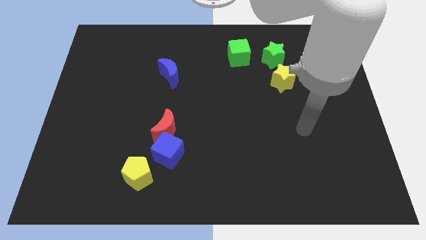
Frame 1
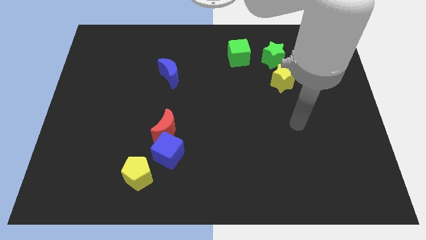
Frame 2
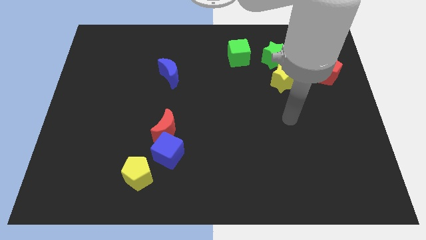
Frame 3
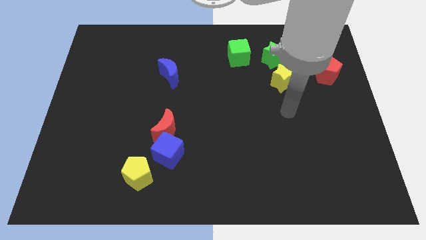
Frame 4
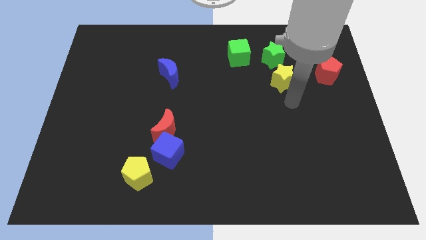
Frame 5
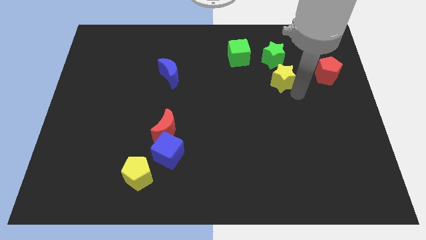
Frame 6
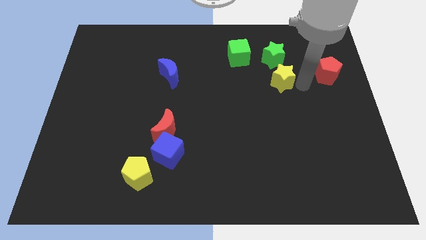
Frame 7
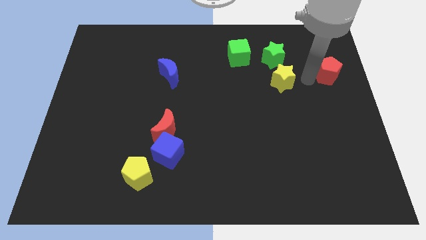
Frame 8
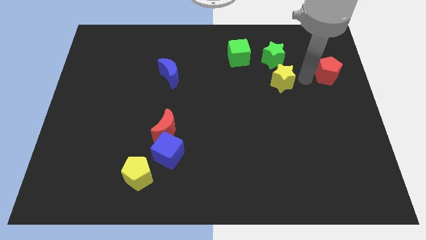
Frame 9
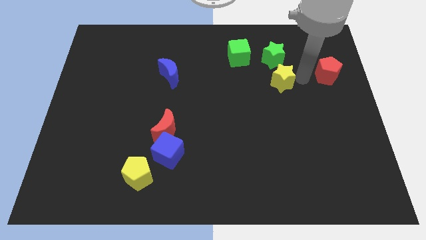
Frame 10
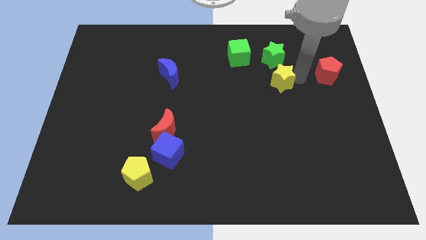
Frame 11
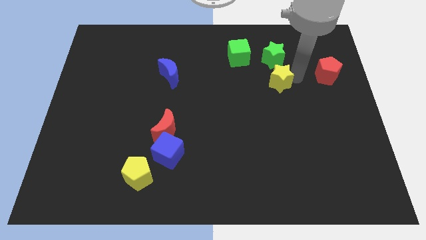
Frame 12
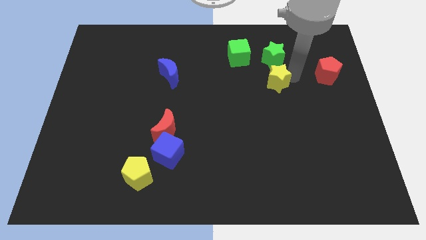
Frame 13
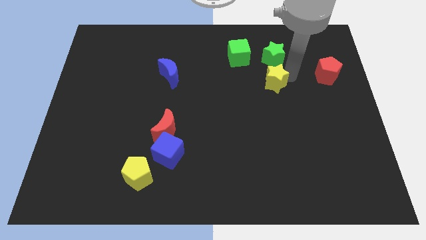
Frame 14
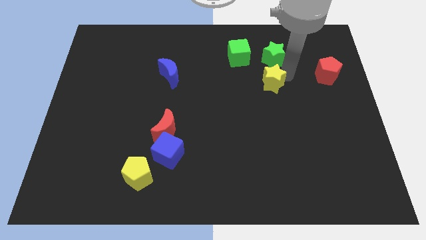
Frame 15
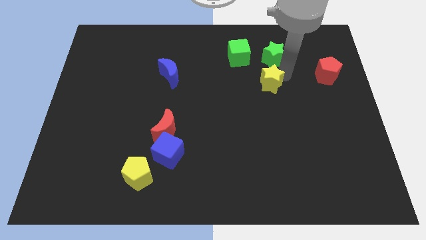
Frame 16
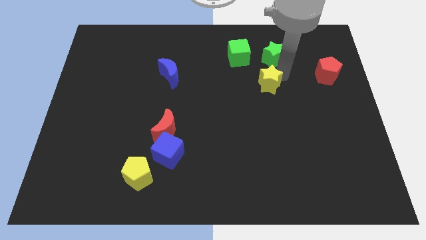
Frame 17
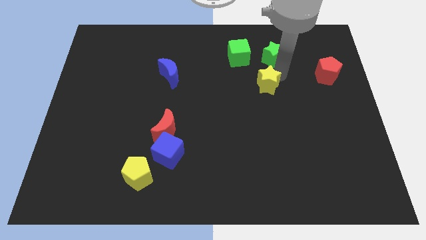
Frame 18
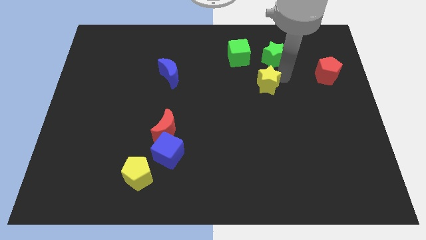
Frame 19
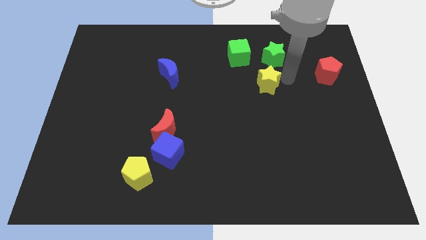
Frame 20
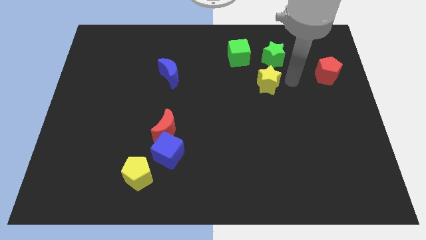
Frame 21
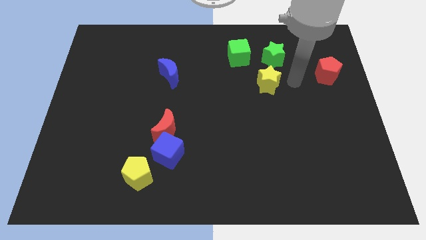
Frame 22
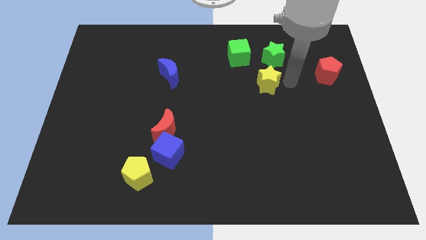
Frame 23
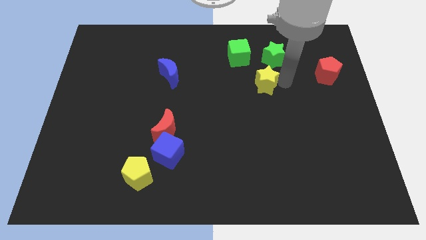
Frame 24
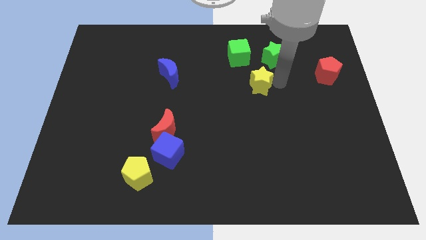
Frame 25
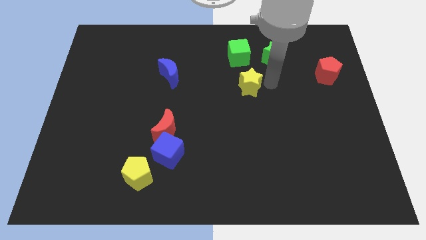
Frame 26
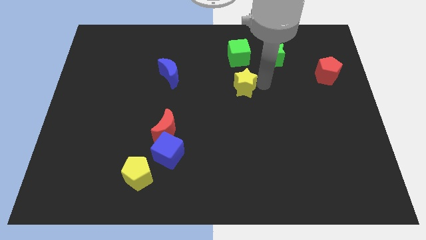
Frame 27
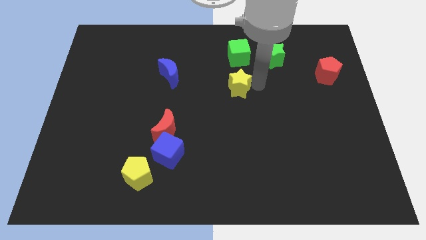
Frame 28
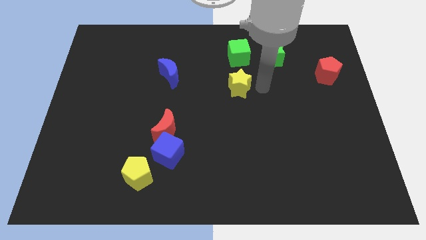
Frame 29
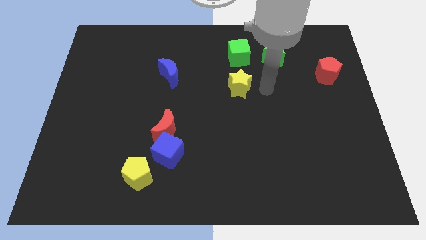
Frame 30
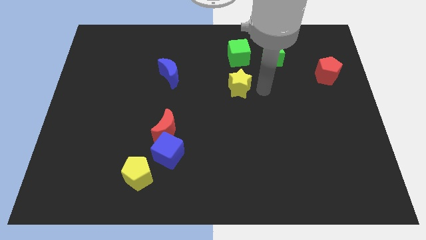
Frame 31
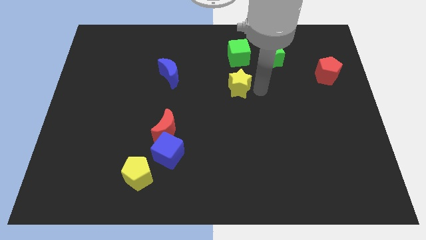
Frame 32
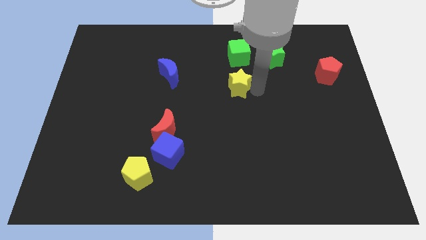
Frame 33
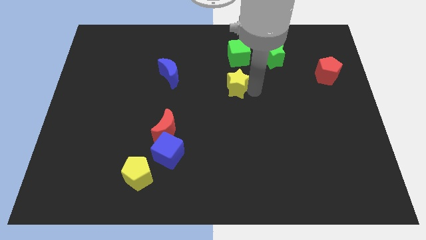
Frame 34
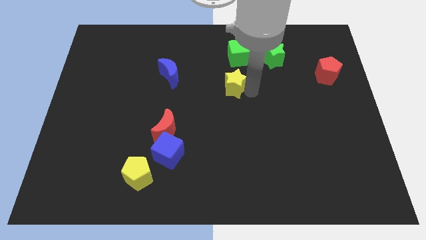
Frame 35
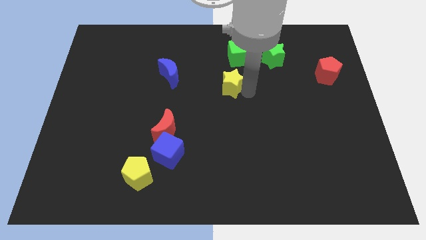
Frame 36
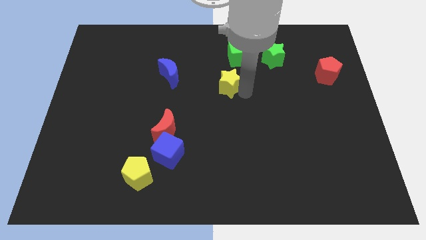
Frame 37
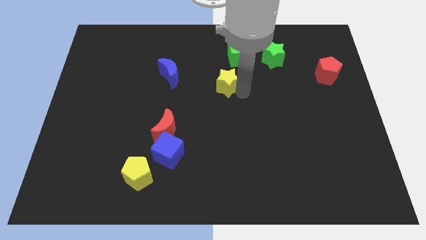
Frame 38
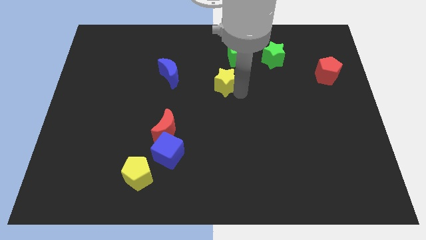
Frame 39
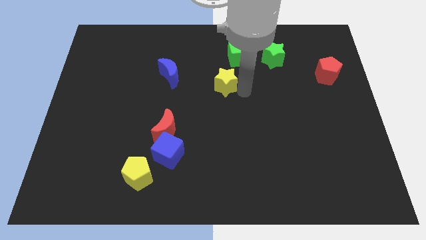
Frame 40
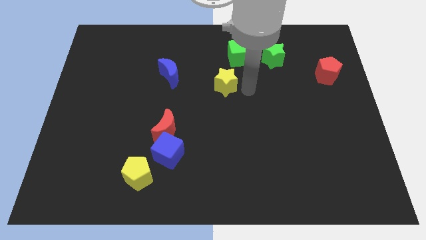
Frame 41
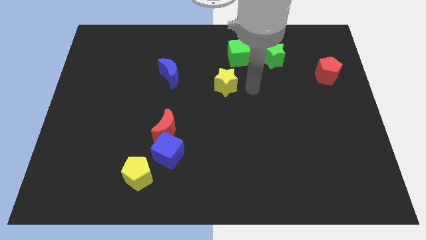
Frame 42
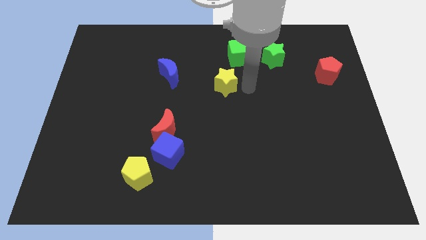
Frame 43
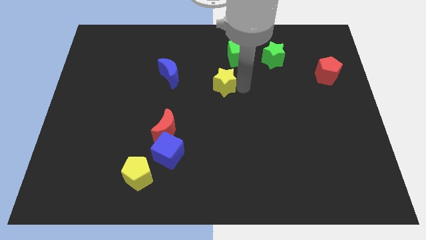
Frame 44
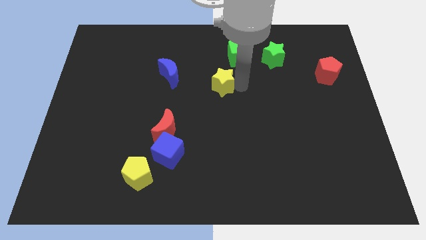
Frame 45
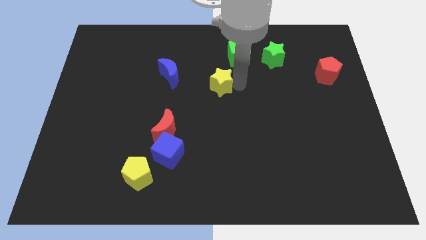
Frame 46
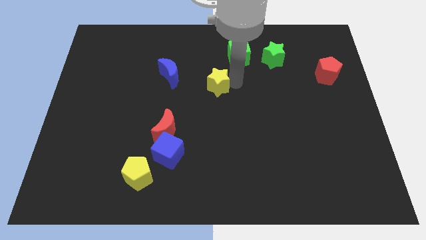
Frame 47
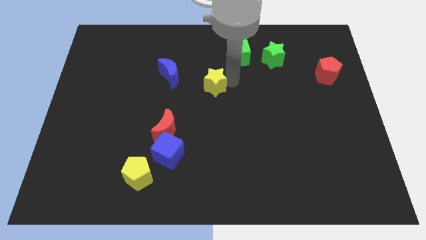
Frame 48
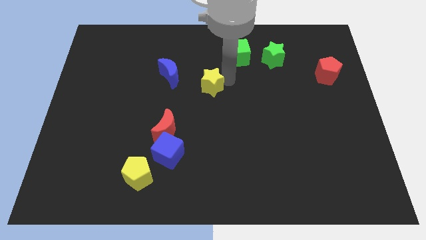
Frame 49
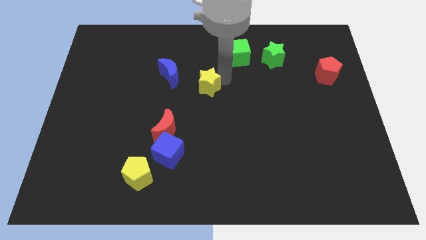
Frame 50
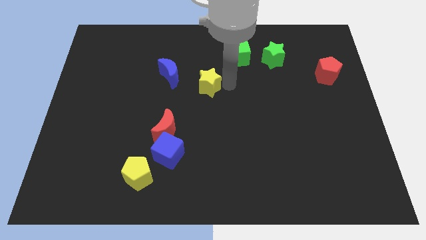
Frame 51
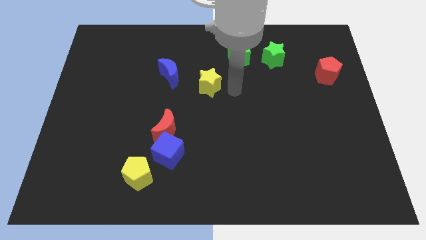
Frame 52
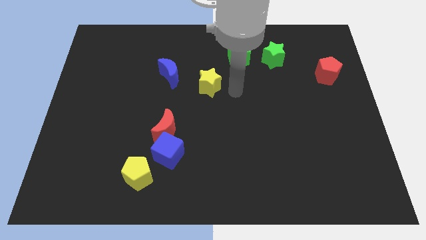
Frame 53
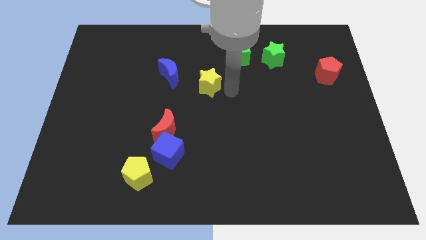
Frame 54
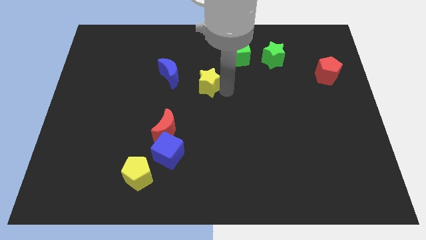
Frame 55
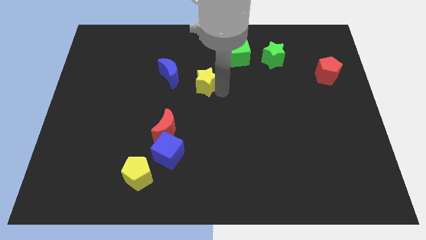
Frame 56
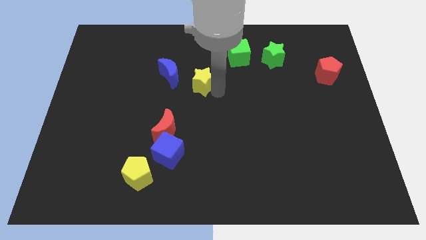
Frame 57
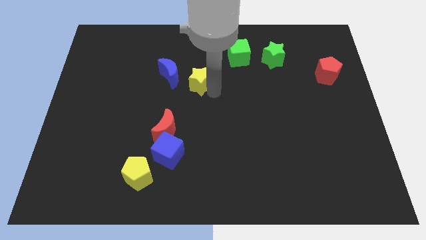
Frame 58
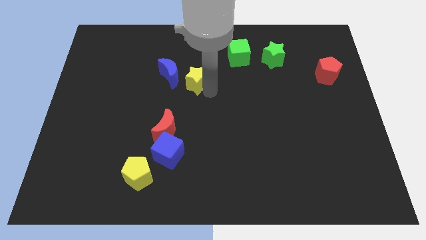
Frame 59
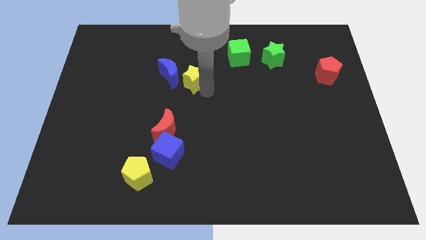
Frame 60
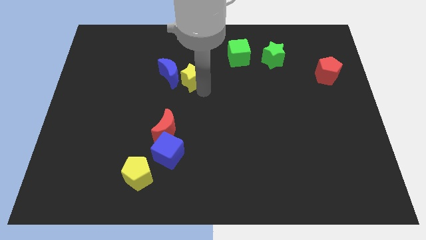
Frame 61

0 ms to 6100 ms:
put the yellow star to the blue moon

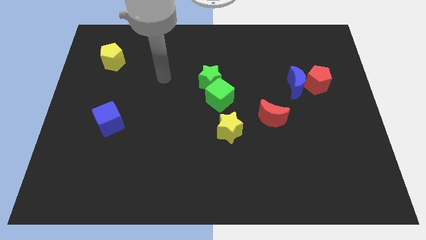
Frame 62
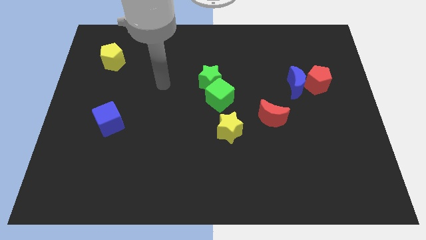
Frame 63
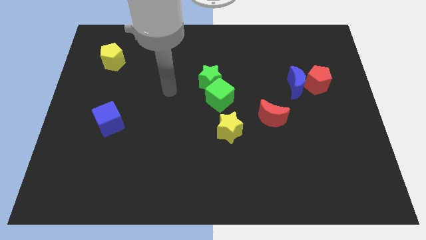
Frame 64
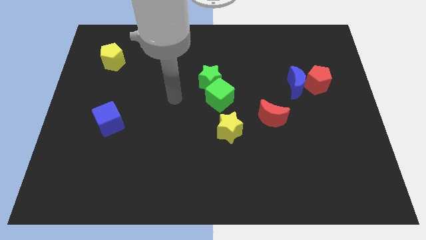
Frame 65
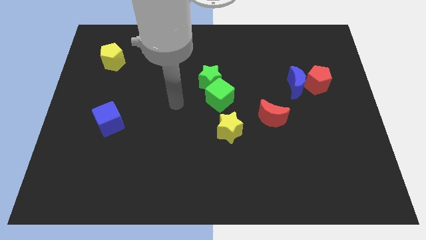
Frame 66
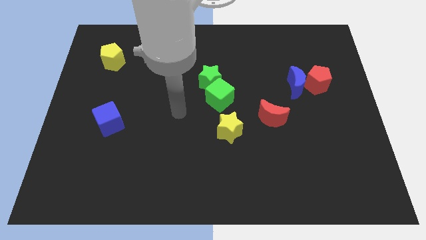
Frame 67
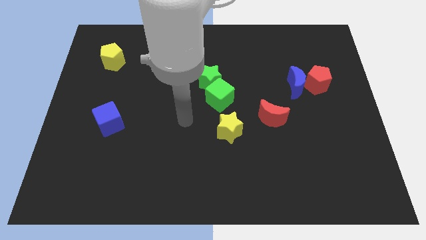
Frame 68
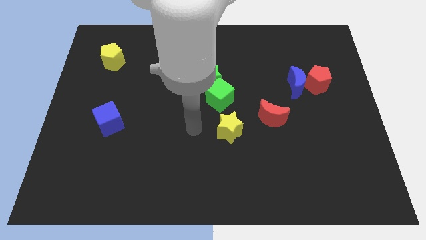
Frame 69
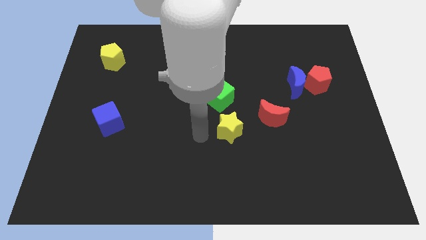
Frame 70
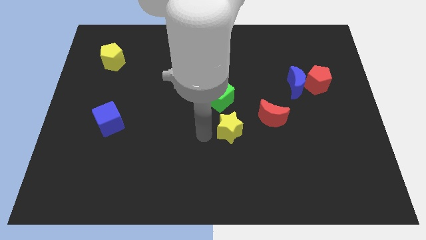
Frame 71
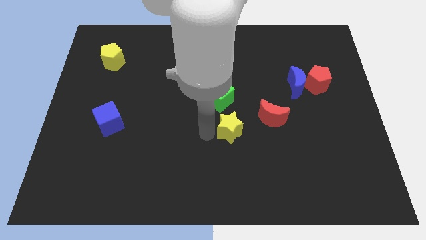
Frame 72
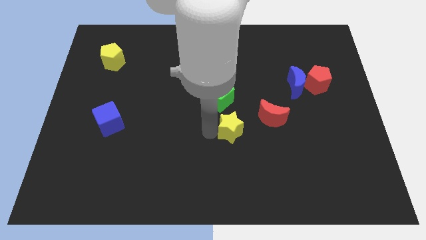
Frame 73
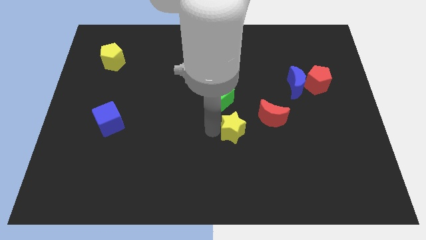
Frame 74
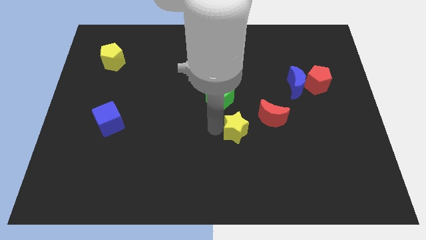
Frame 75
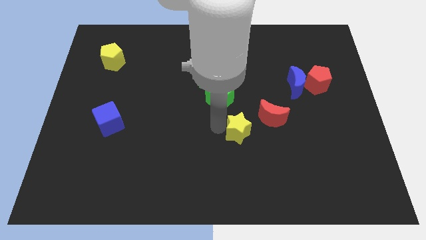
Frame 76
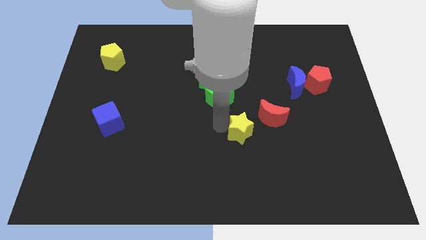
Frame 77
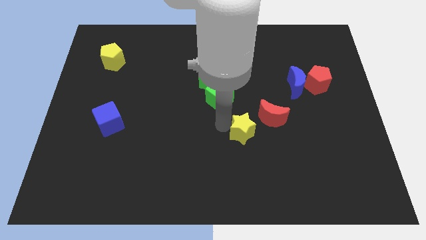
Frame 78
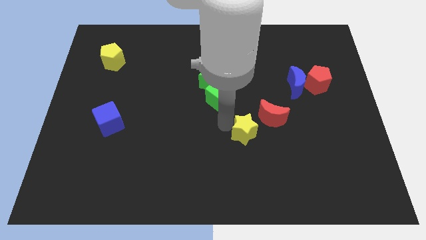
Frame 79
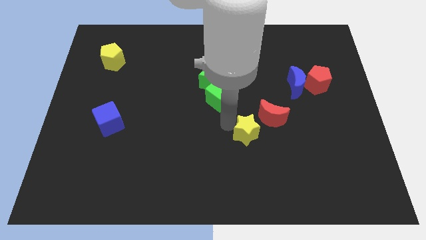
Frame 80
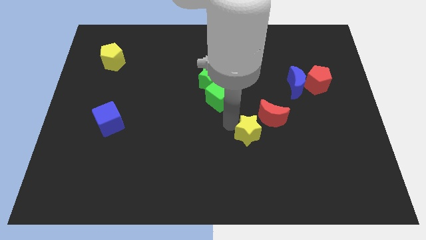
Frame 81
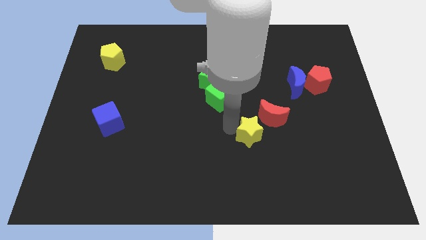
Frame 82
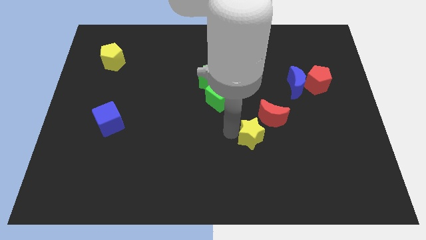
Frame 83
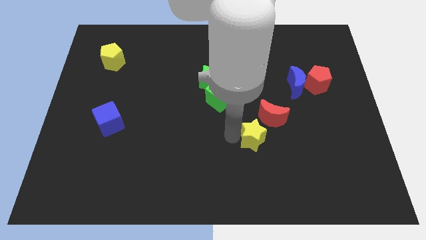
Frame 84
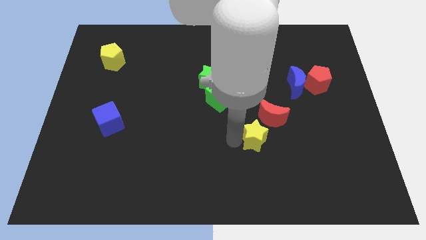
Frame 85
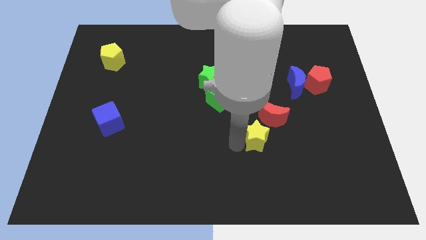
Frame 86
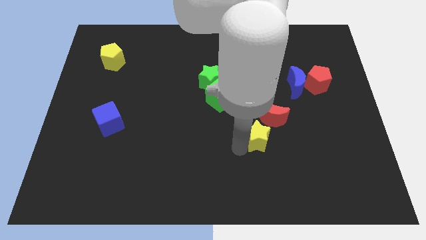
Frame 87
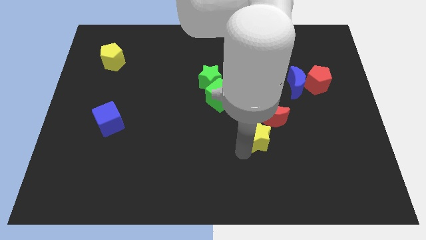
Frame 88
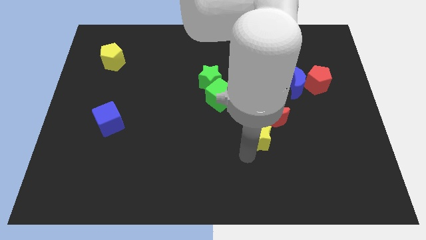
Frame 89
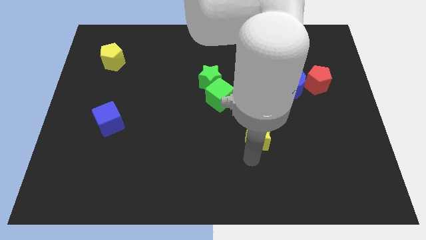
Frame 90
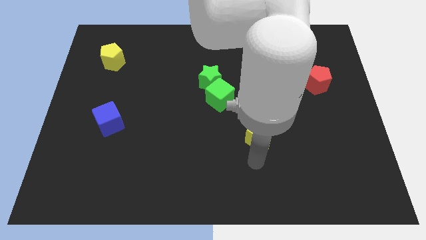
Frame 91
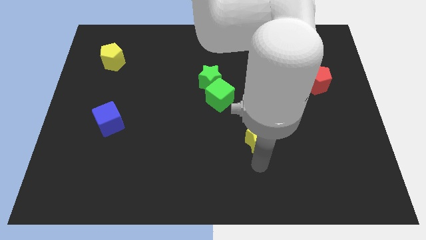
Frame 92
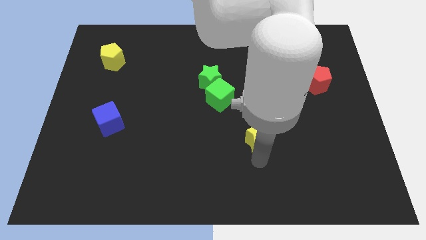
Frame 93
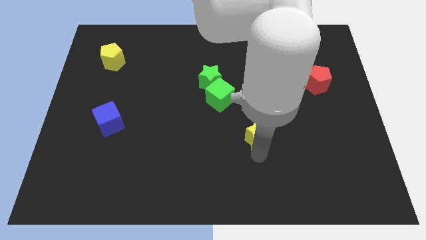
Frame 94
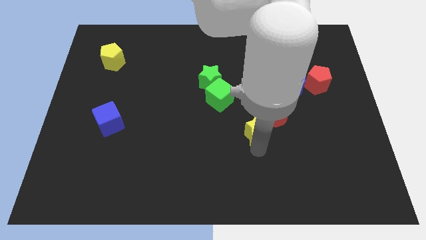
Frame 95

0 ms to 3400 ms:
push the yellow star to the red moon
